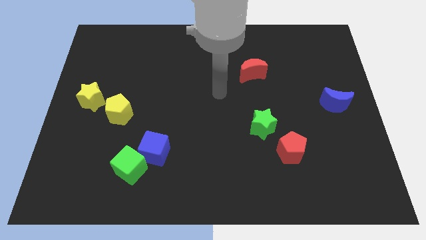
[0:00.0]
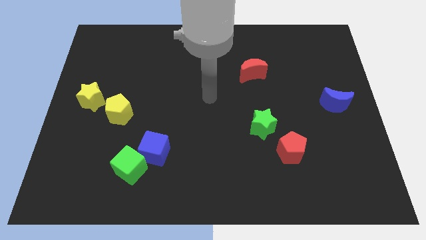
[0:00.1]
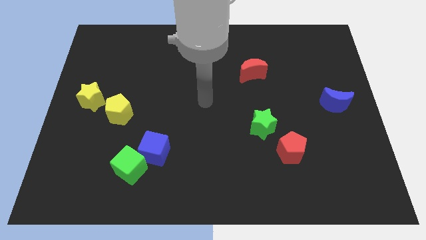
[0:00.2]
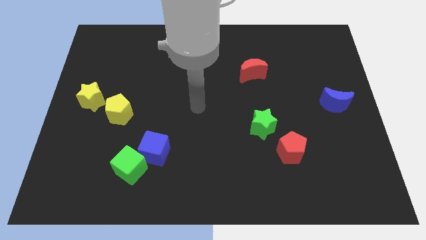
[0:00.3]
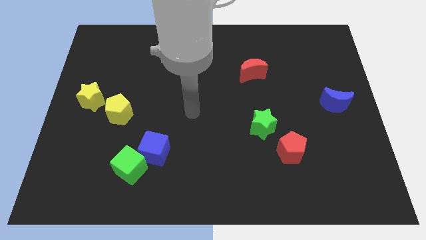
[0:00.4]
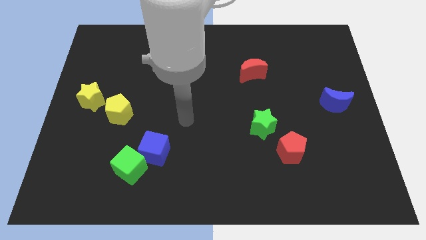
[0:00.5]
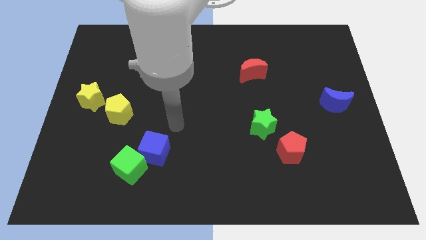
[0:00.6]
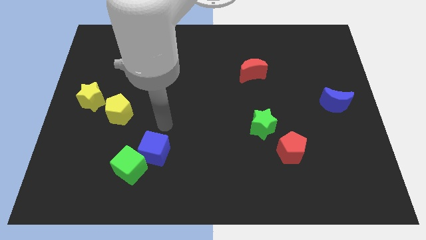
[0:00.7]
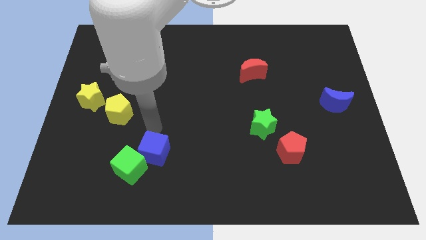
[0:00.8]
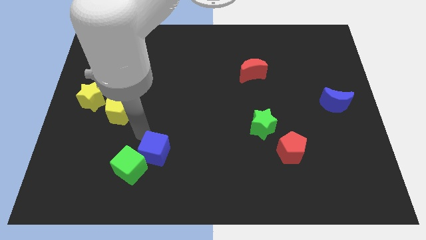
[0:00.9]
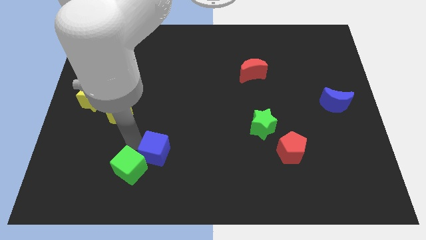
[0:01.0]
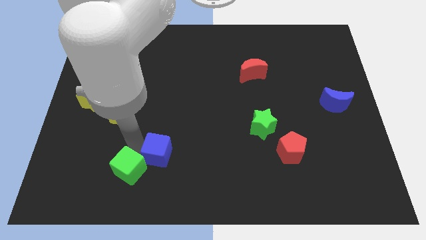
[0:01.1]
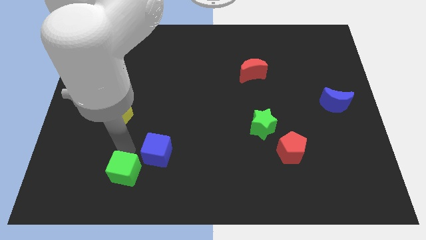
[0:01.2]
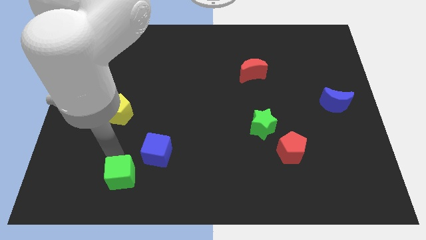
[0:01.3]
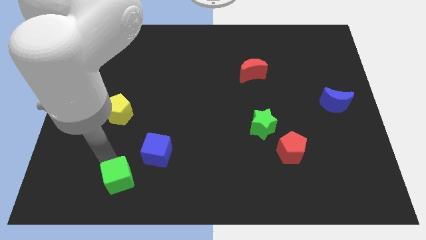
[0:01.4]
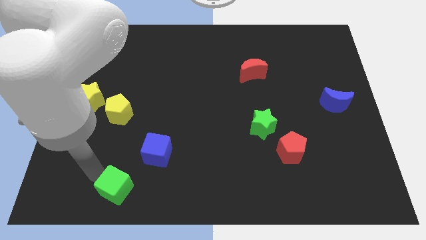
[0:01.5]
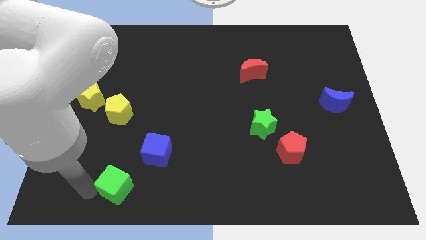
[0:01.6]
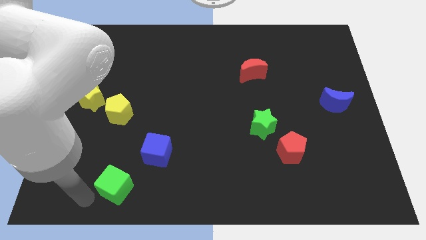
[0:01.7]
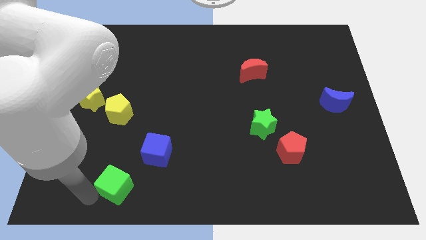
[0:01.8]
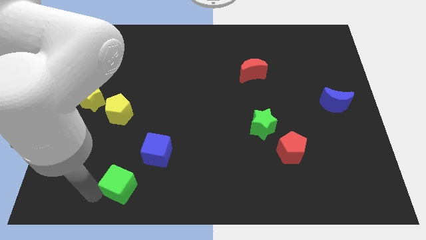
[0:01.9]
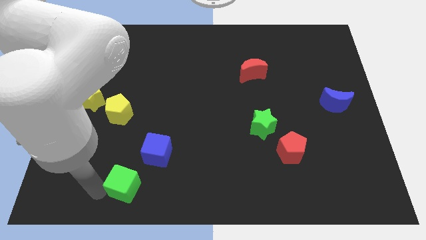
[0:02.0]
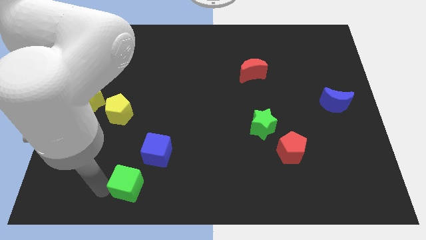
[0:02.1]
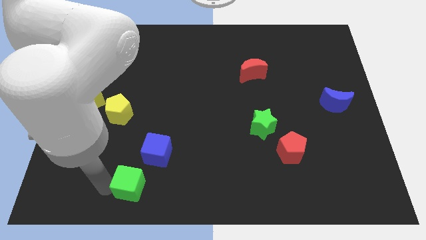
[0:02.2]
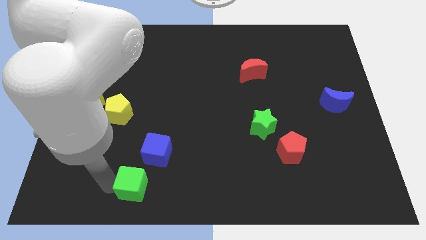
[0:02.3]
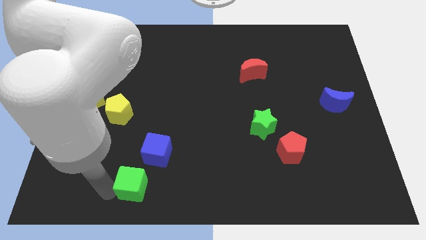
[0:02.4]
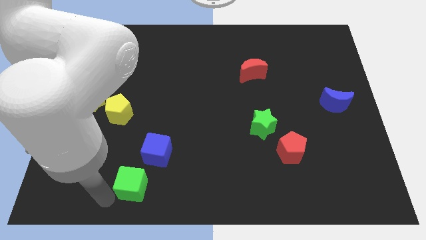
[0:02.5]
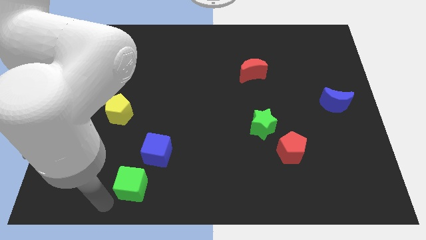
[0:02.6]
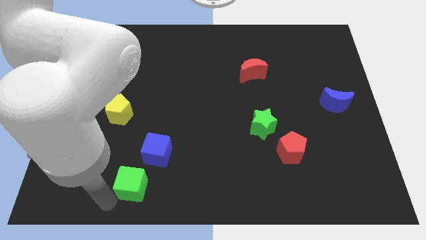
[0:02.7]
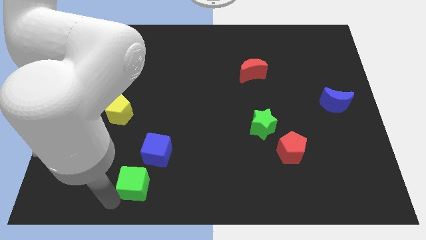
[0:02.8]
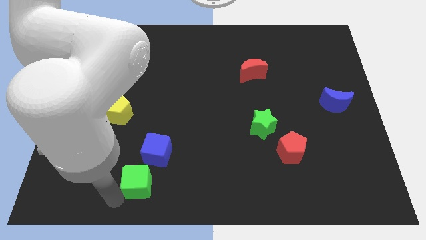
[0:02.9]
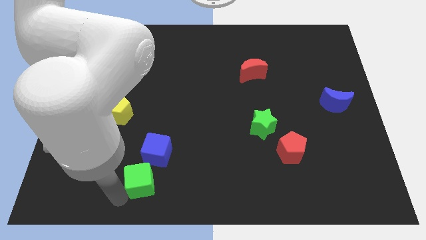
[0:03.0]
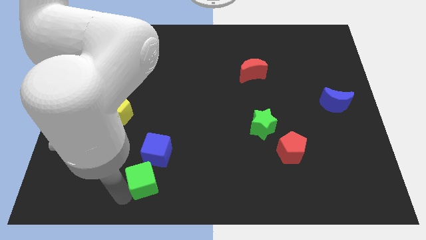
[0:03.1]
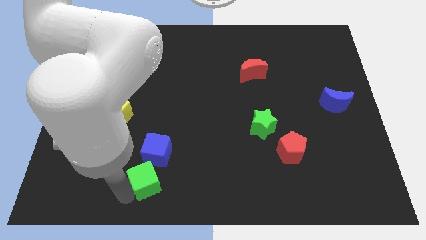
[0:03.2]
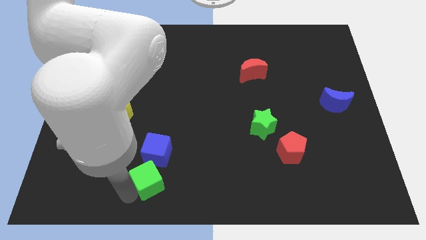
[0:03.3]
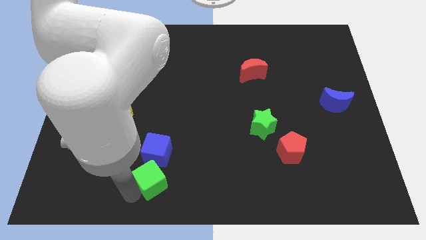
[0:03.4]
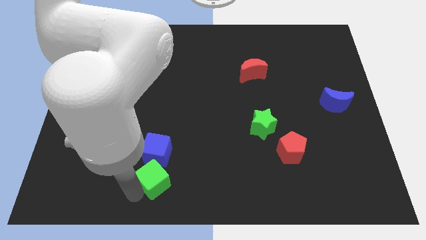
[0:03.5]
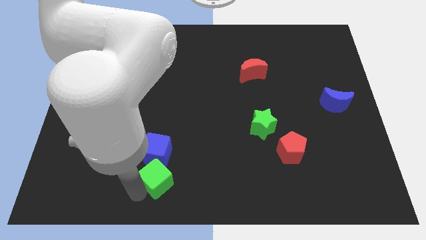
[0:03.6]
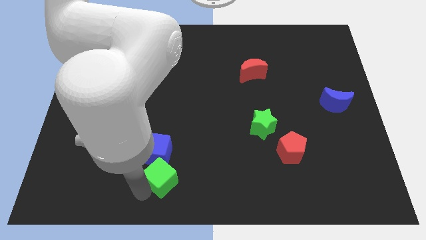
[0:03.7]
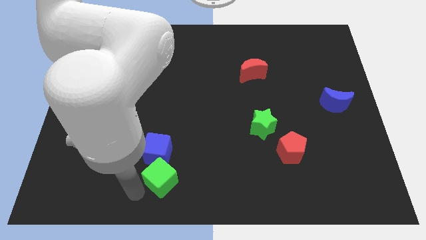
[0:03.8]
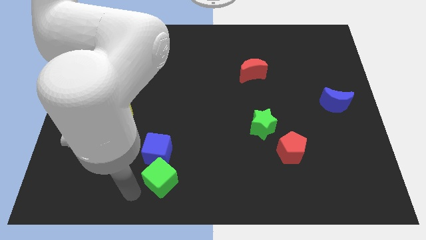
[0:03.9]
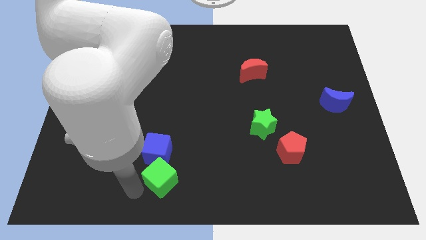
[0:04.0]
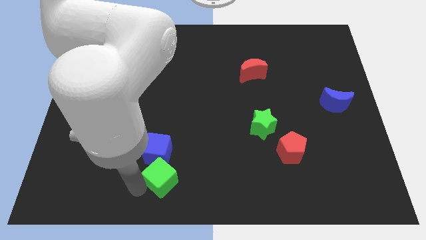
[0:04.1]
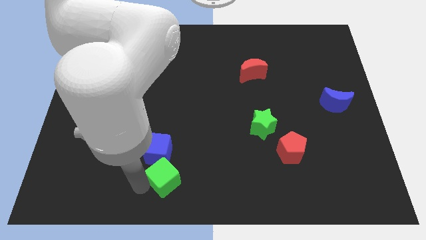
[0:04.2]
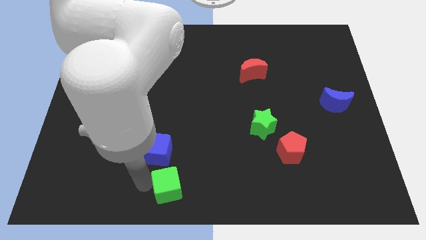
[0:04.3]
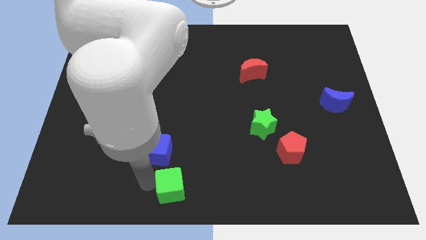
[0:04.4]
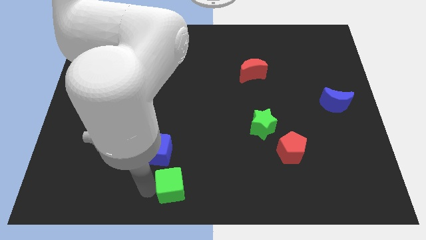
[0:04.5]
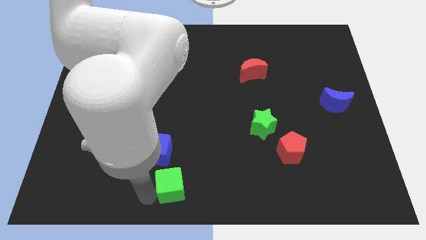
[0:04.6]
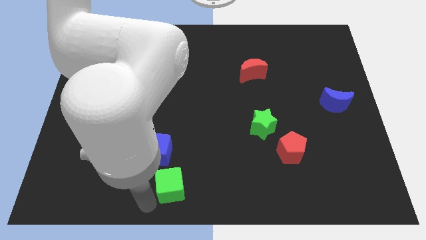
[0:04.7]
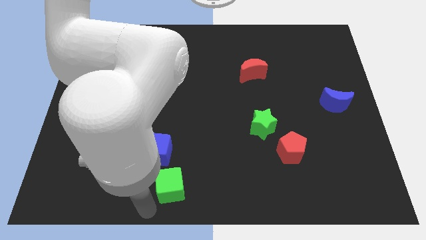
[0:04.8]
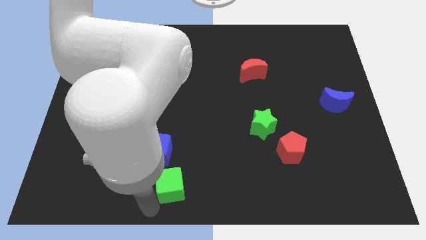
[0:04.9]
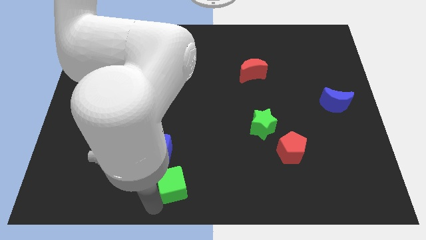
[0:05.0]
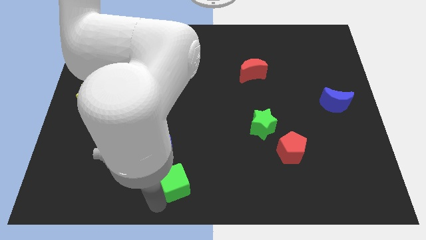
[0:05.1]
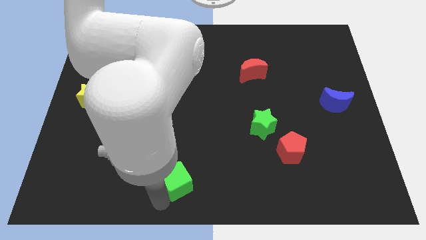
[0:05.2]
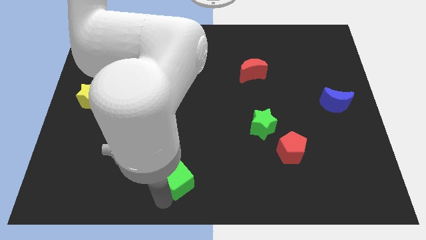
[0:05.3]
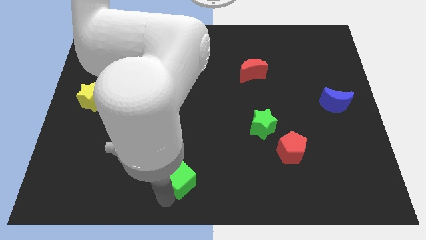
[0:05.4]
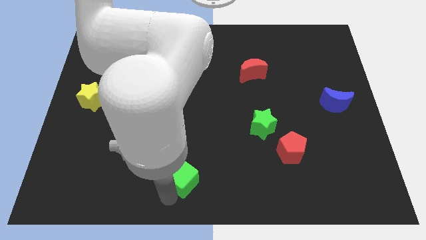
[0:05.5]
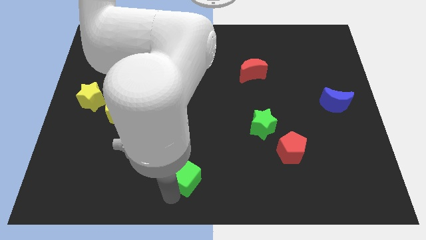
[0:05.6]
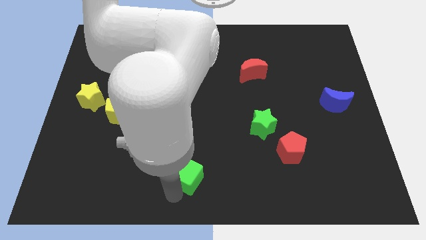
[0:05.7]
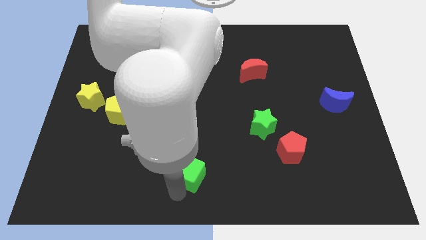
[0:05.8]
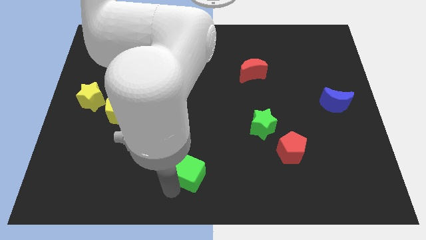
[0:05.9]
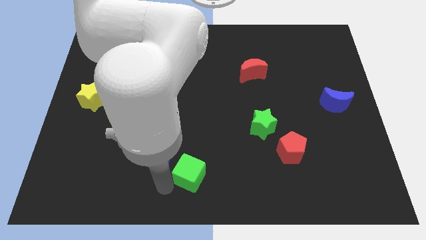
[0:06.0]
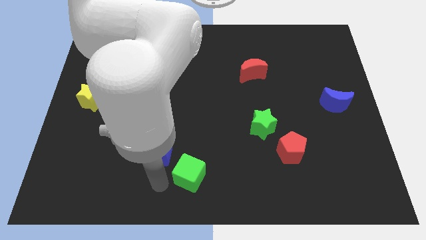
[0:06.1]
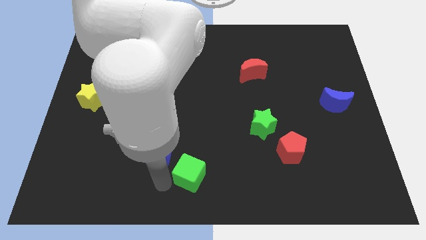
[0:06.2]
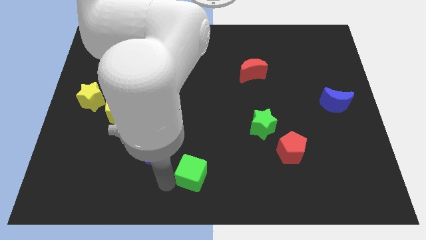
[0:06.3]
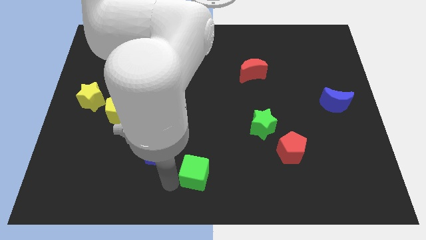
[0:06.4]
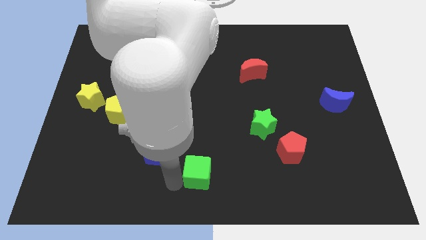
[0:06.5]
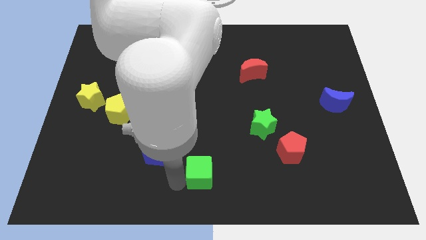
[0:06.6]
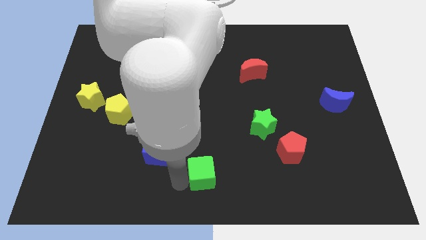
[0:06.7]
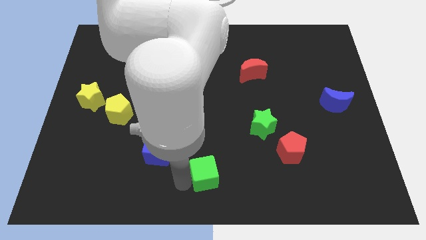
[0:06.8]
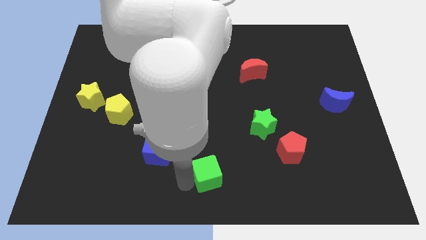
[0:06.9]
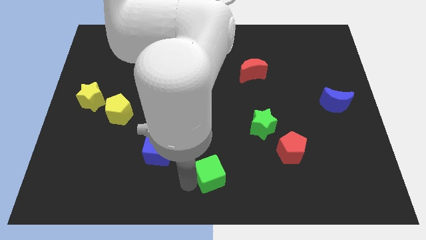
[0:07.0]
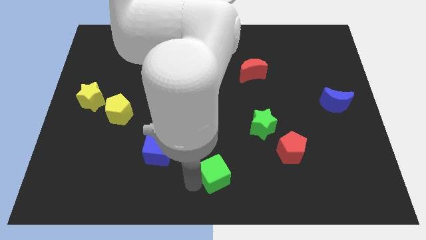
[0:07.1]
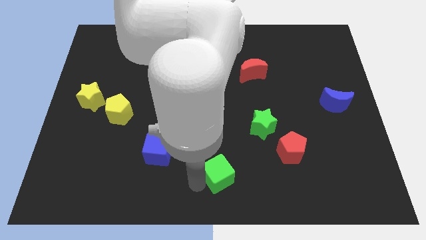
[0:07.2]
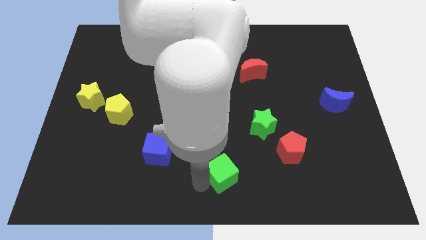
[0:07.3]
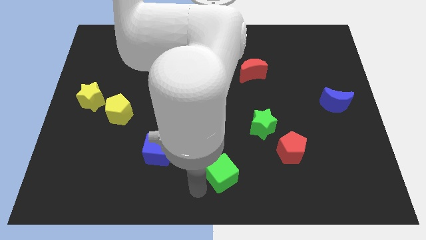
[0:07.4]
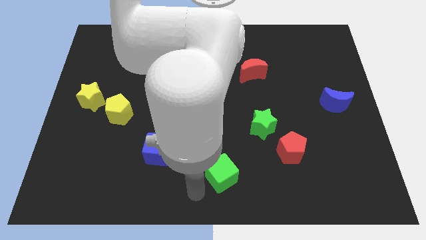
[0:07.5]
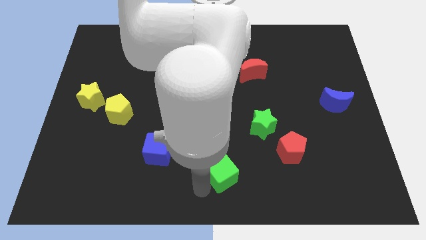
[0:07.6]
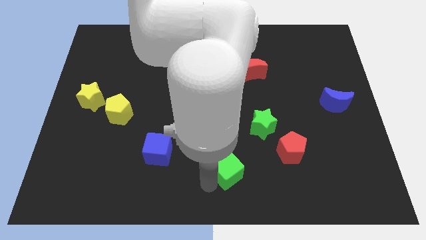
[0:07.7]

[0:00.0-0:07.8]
move the green cube to the right

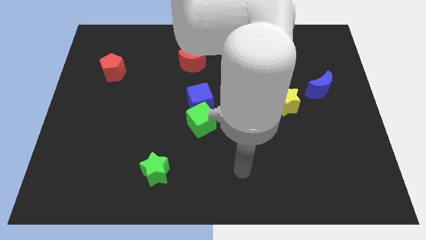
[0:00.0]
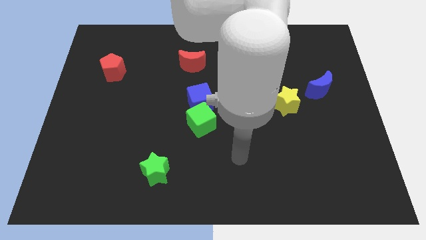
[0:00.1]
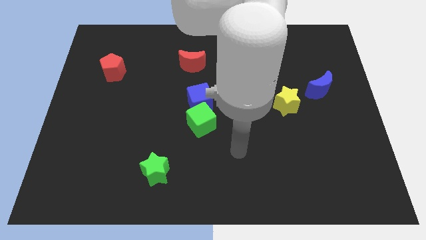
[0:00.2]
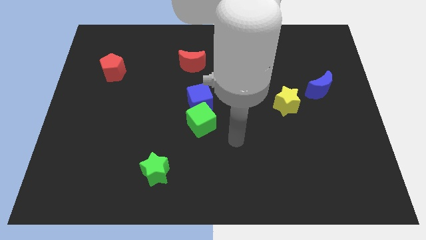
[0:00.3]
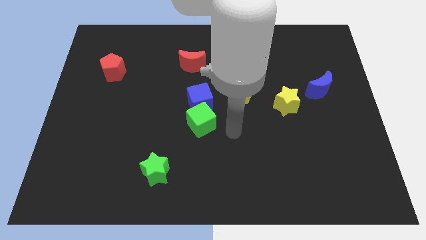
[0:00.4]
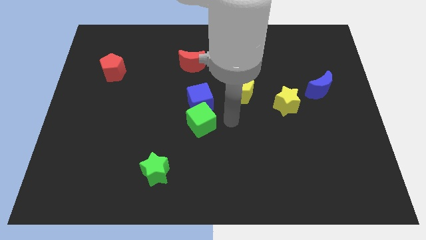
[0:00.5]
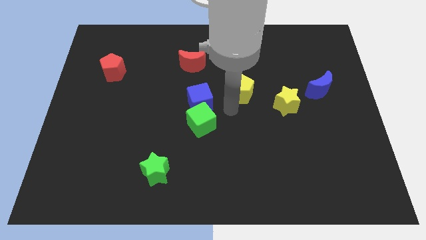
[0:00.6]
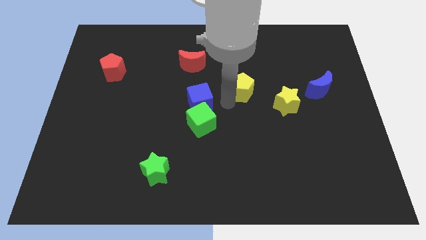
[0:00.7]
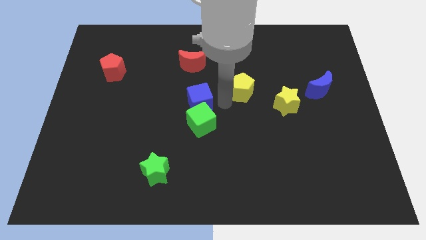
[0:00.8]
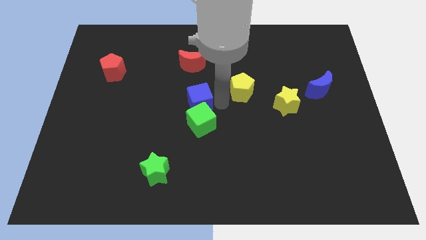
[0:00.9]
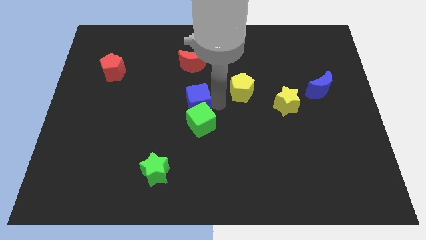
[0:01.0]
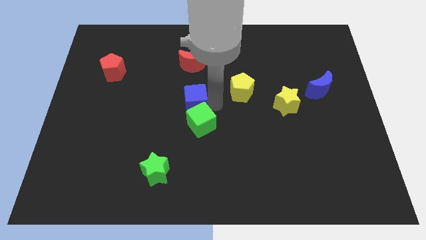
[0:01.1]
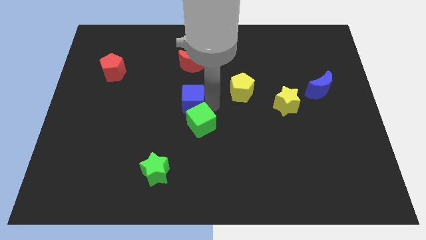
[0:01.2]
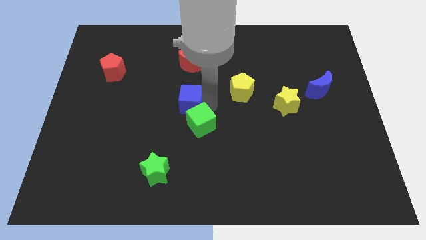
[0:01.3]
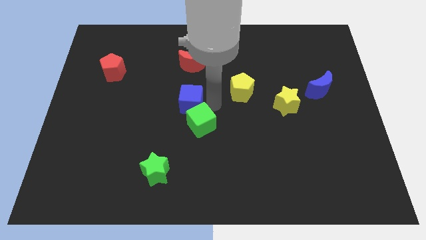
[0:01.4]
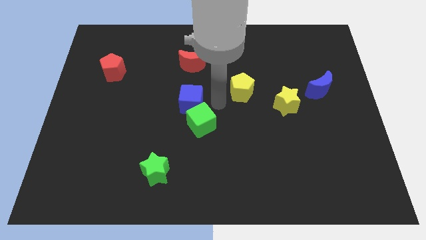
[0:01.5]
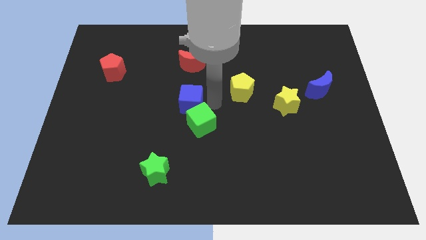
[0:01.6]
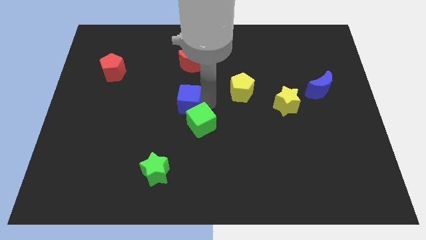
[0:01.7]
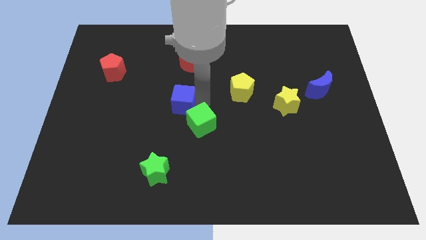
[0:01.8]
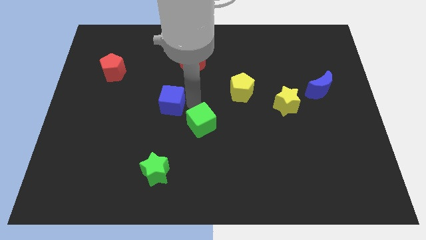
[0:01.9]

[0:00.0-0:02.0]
slightly move the blue cube left
